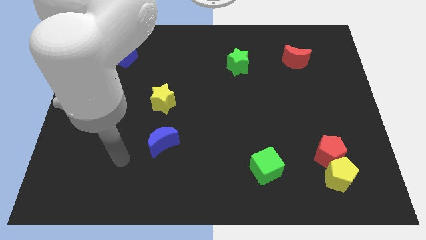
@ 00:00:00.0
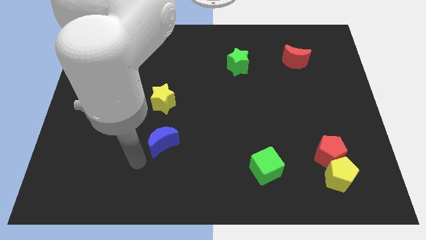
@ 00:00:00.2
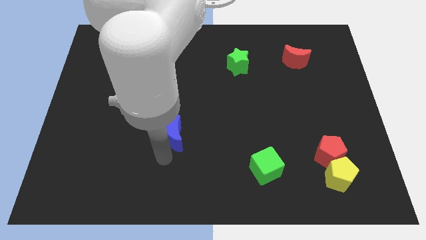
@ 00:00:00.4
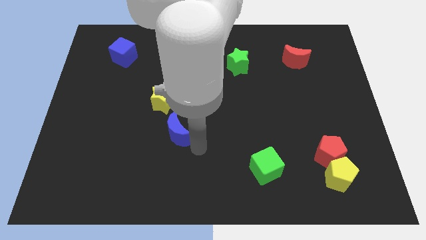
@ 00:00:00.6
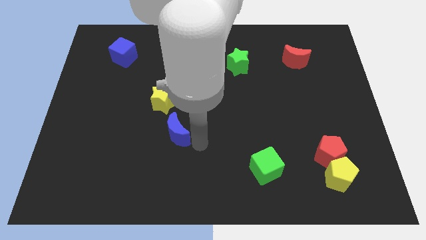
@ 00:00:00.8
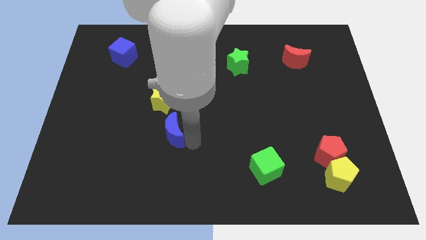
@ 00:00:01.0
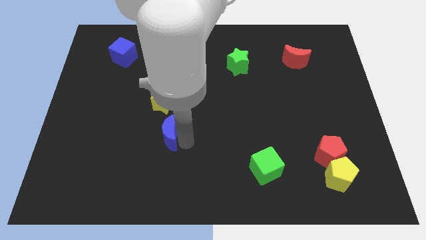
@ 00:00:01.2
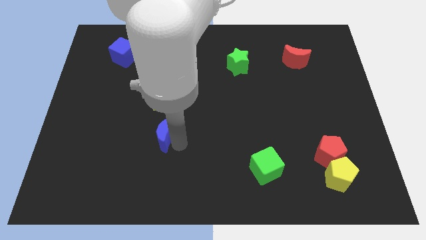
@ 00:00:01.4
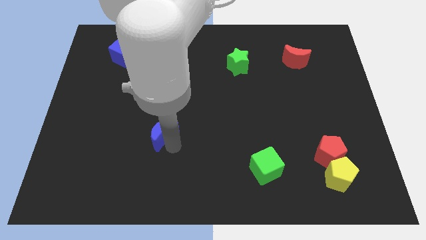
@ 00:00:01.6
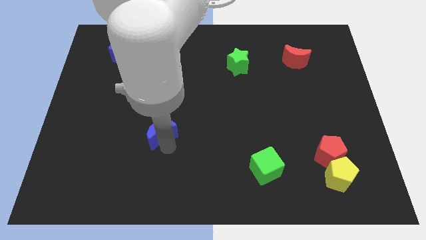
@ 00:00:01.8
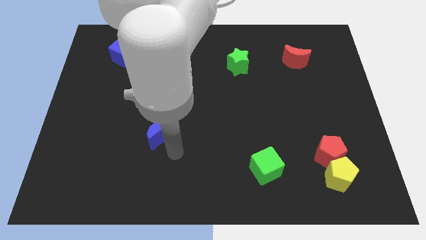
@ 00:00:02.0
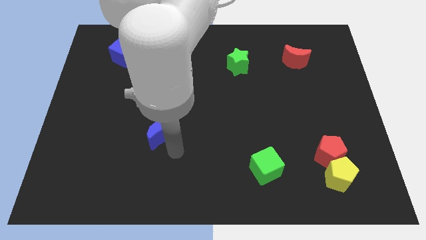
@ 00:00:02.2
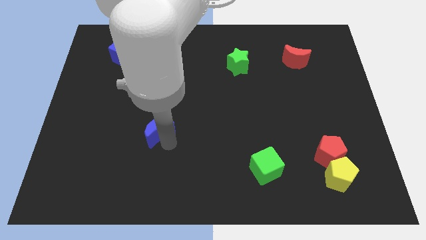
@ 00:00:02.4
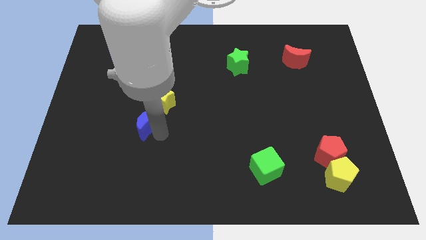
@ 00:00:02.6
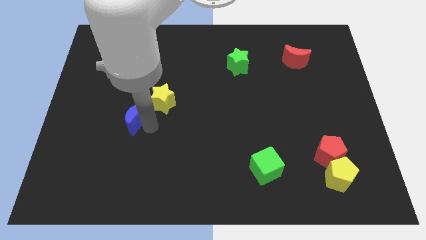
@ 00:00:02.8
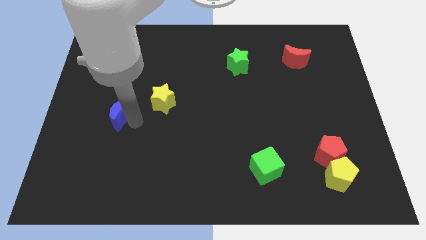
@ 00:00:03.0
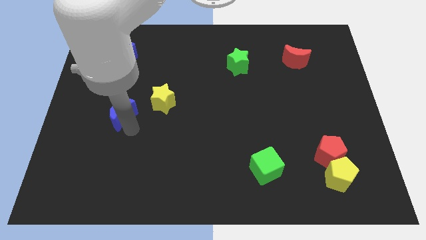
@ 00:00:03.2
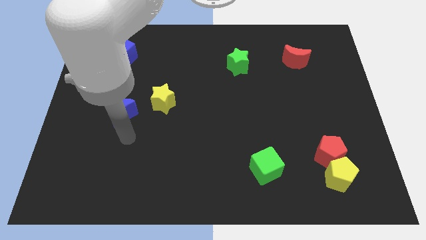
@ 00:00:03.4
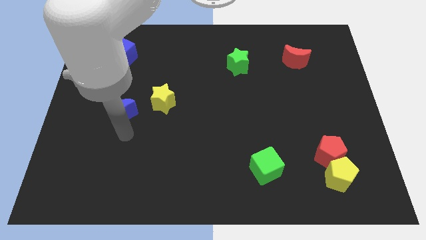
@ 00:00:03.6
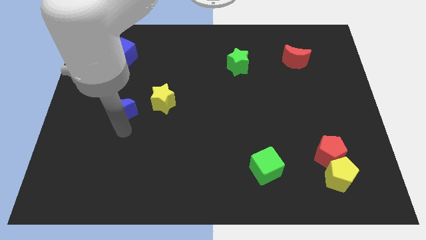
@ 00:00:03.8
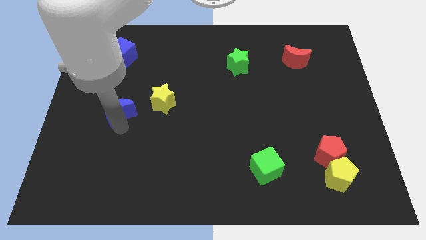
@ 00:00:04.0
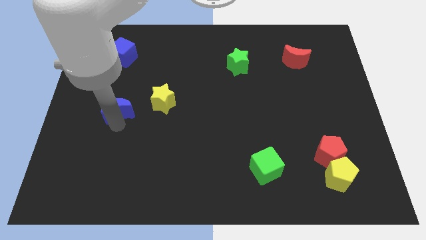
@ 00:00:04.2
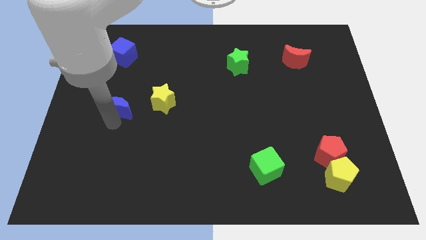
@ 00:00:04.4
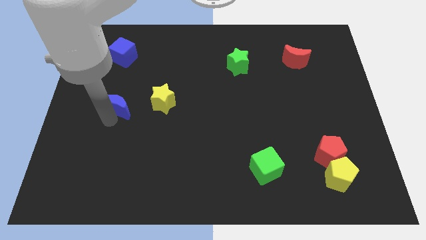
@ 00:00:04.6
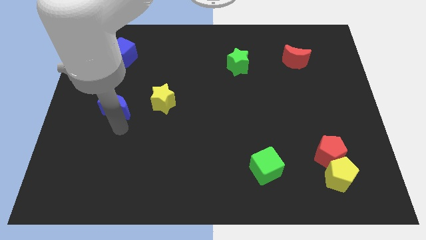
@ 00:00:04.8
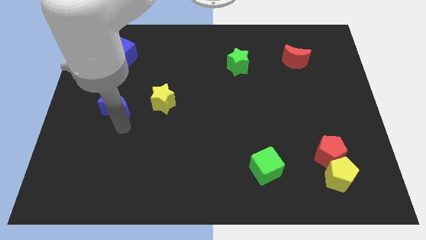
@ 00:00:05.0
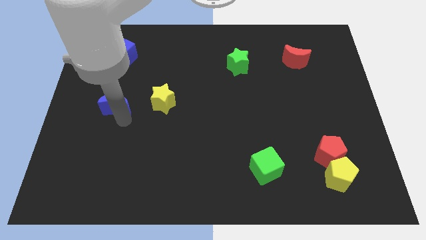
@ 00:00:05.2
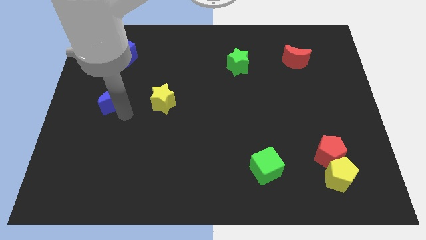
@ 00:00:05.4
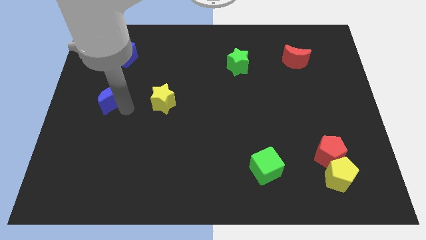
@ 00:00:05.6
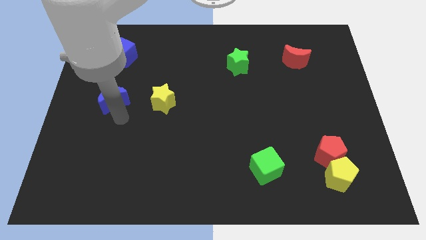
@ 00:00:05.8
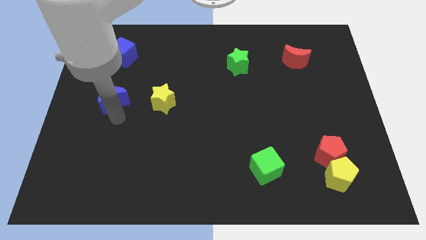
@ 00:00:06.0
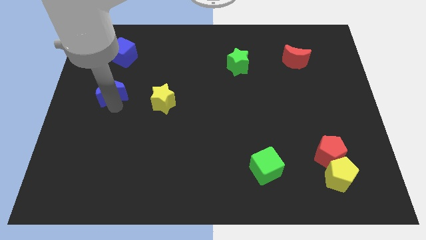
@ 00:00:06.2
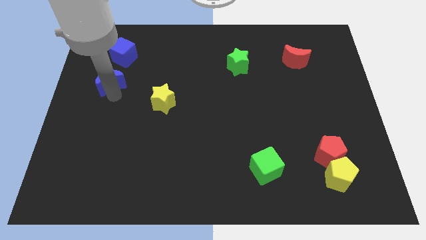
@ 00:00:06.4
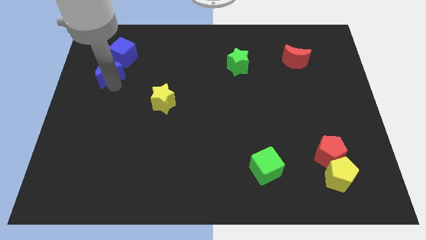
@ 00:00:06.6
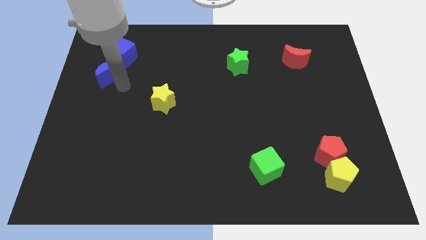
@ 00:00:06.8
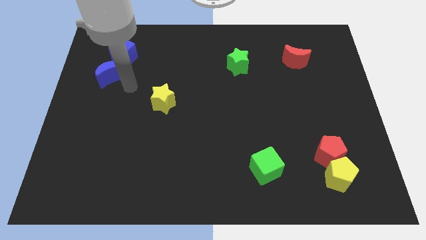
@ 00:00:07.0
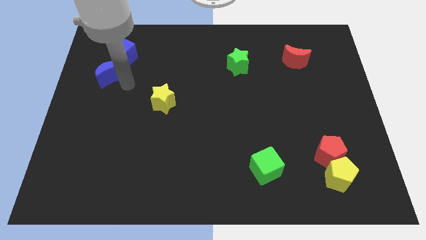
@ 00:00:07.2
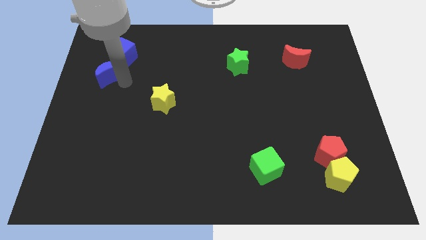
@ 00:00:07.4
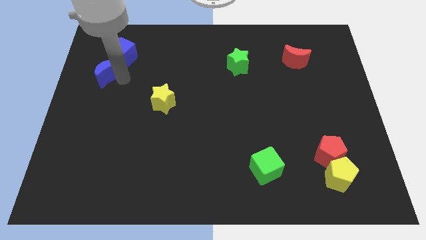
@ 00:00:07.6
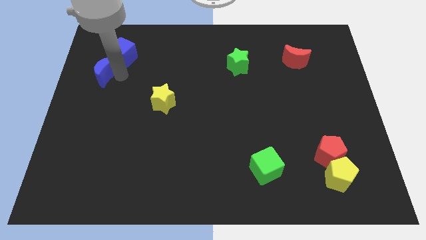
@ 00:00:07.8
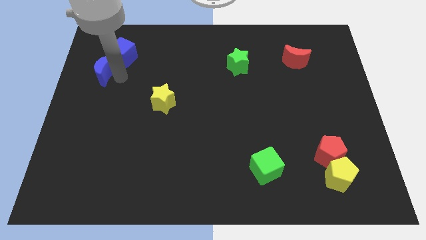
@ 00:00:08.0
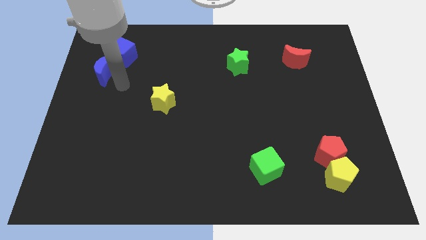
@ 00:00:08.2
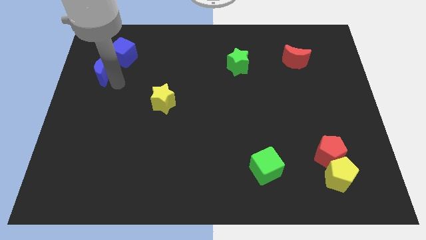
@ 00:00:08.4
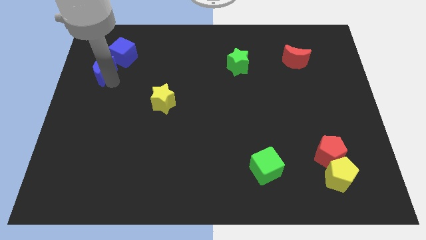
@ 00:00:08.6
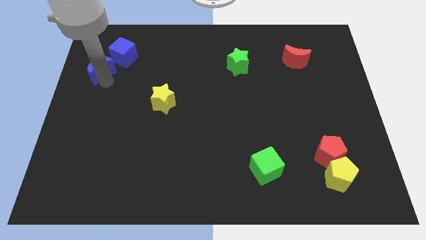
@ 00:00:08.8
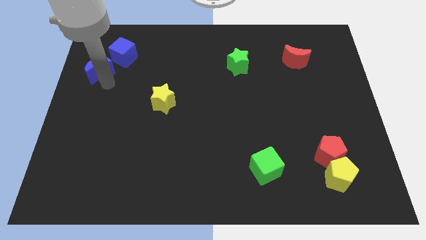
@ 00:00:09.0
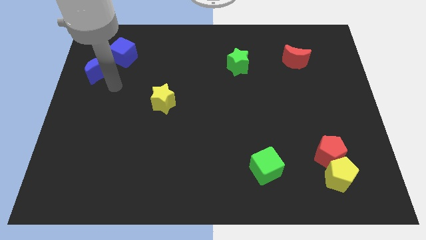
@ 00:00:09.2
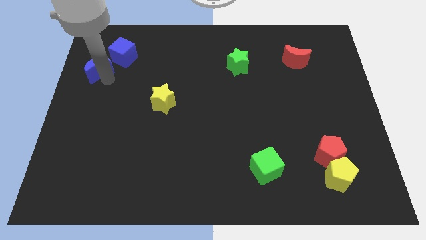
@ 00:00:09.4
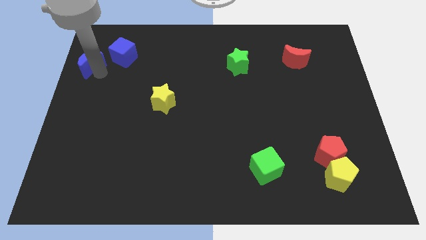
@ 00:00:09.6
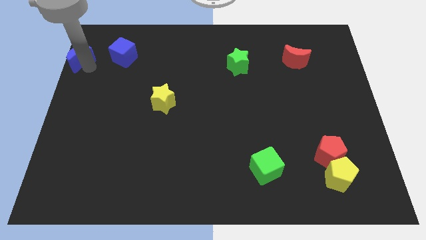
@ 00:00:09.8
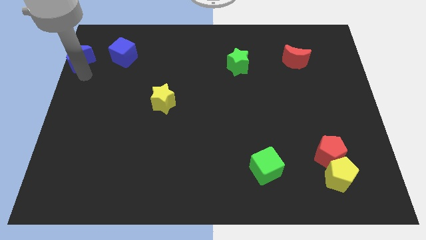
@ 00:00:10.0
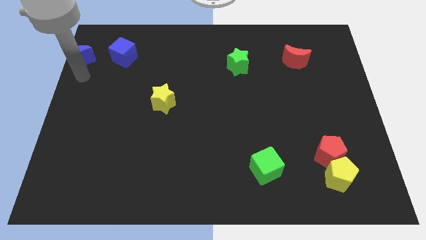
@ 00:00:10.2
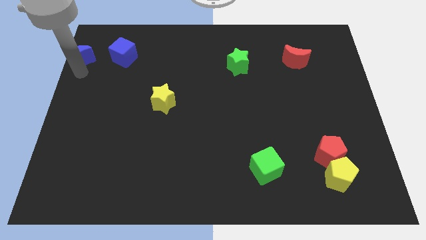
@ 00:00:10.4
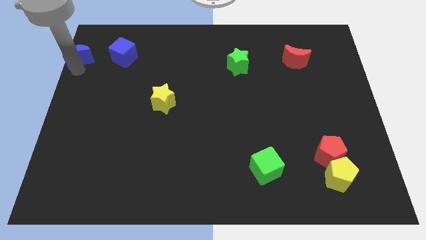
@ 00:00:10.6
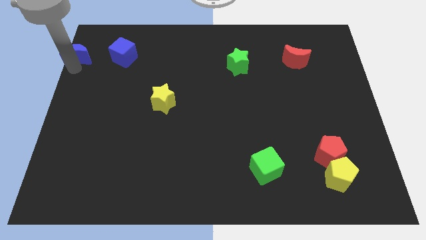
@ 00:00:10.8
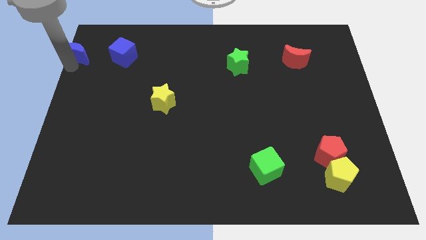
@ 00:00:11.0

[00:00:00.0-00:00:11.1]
slide the blue moon to the top left
